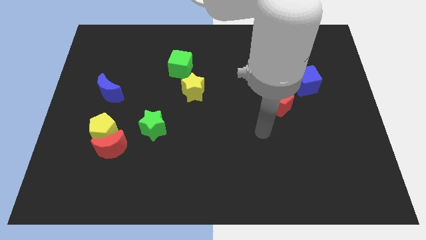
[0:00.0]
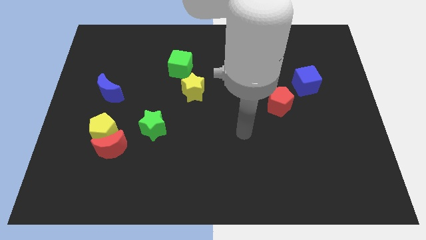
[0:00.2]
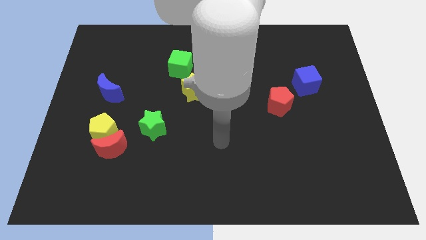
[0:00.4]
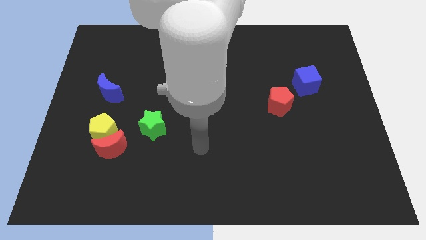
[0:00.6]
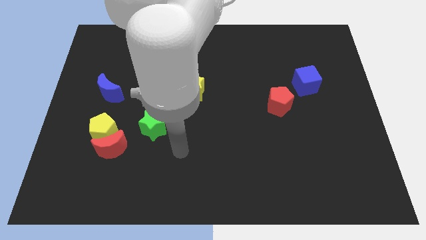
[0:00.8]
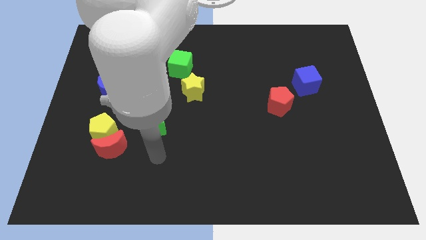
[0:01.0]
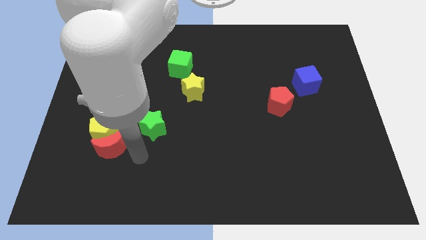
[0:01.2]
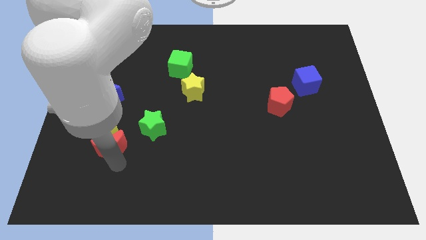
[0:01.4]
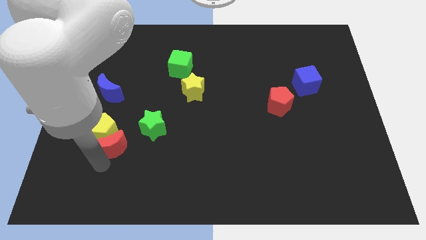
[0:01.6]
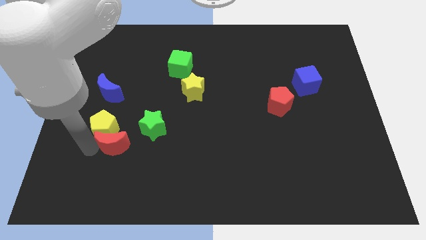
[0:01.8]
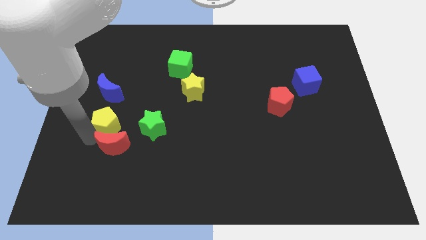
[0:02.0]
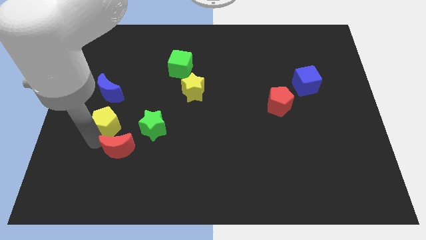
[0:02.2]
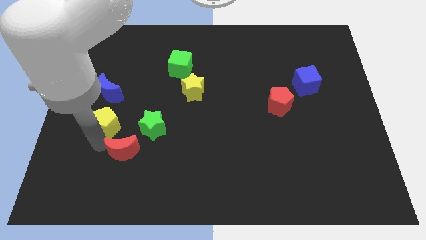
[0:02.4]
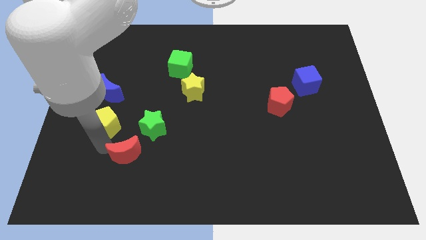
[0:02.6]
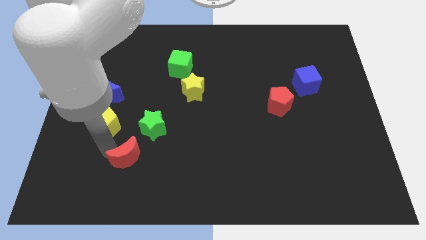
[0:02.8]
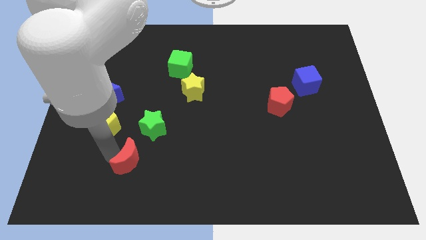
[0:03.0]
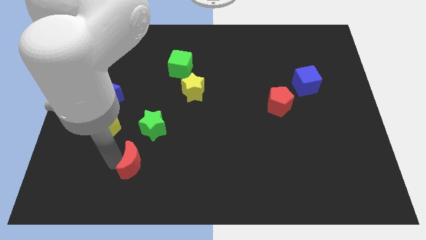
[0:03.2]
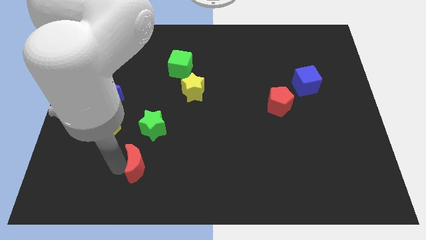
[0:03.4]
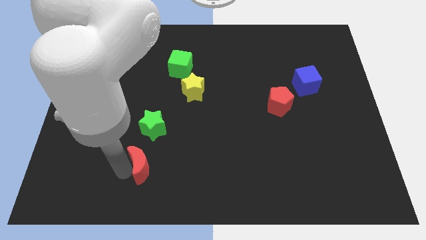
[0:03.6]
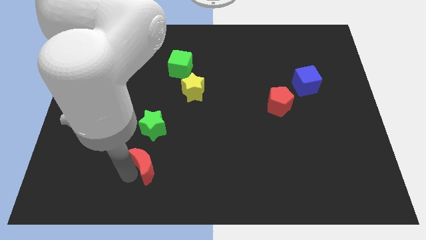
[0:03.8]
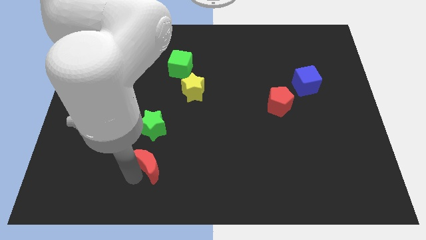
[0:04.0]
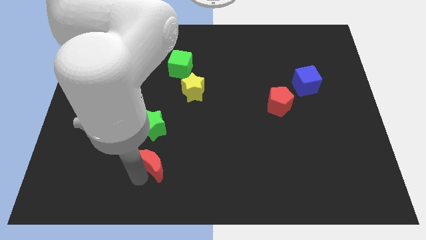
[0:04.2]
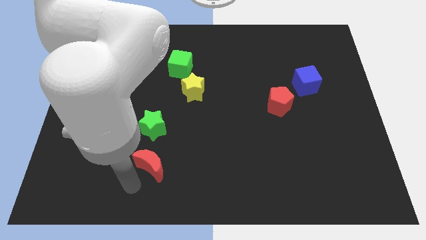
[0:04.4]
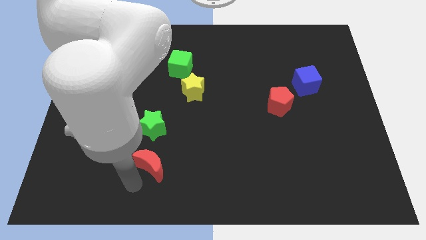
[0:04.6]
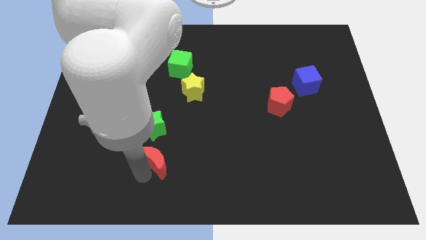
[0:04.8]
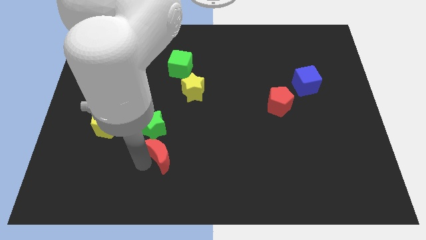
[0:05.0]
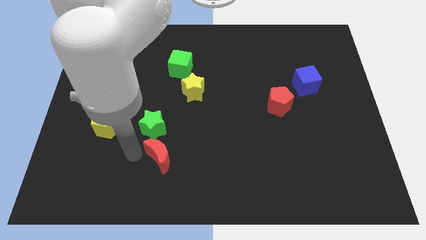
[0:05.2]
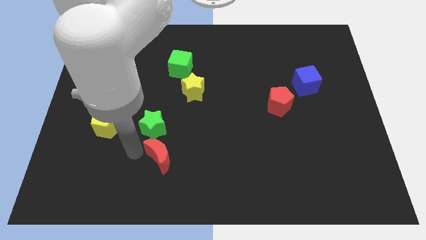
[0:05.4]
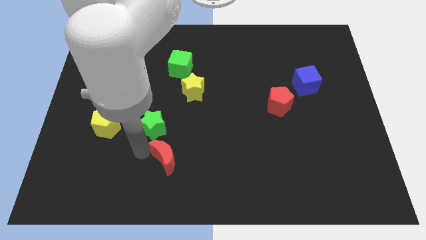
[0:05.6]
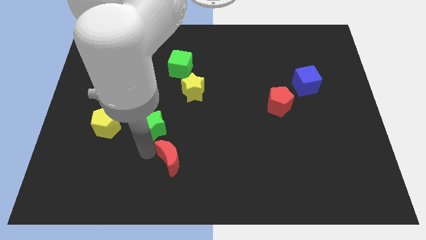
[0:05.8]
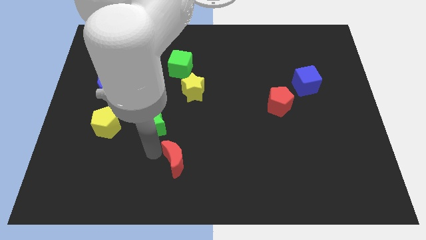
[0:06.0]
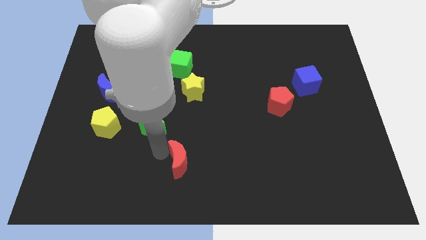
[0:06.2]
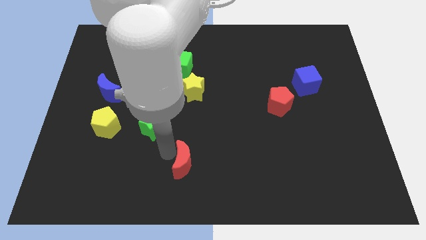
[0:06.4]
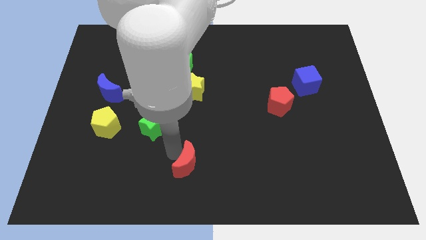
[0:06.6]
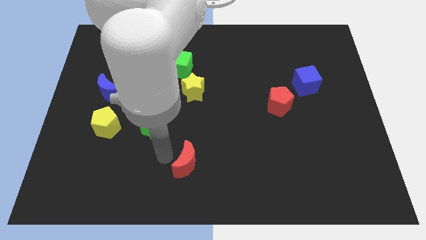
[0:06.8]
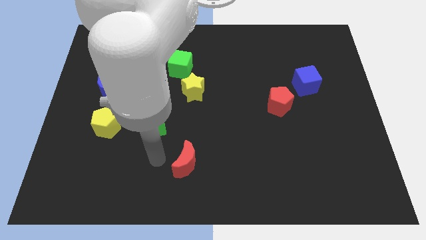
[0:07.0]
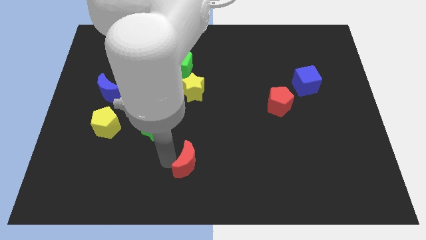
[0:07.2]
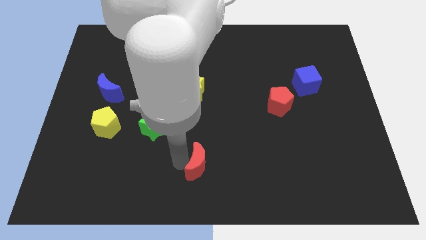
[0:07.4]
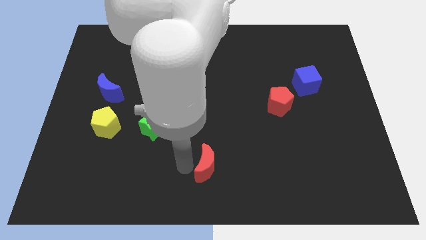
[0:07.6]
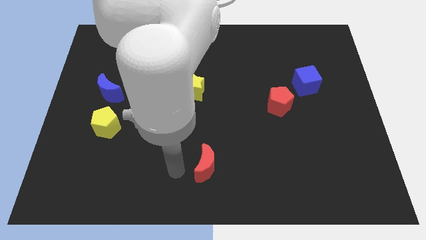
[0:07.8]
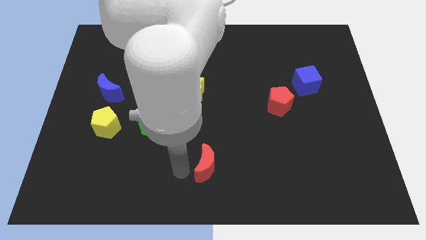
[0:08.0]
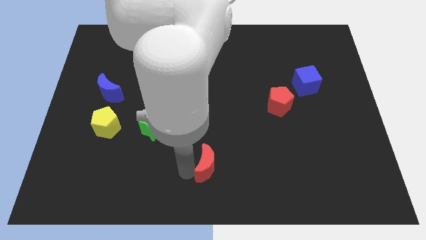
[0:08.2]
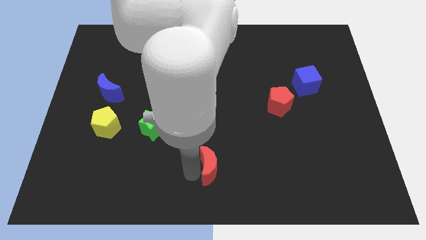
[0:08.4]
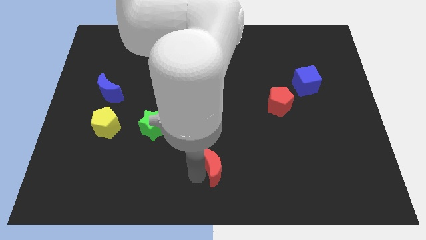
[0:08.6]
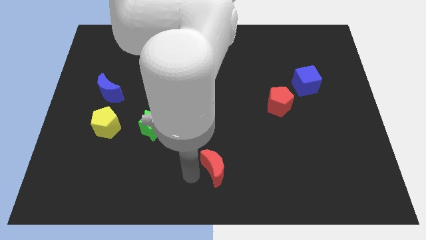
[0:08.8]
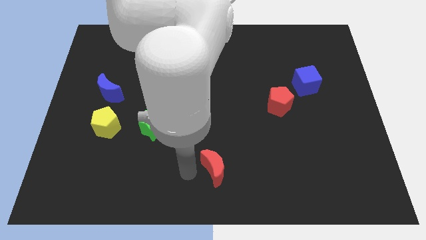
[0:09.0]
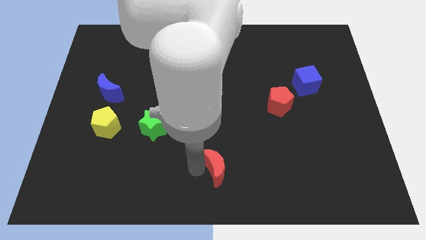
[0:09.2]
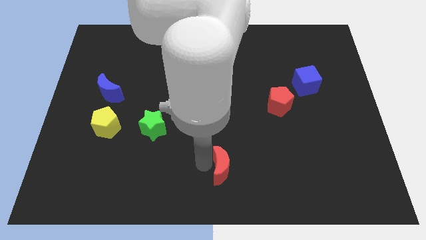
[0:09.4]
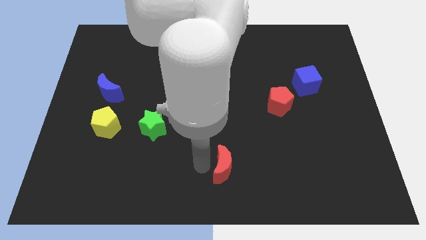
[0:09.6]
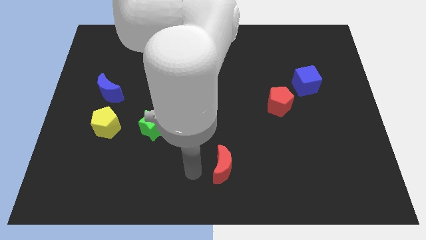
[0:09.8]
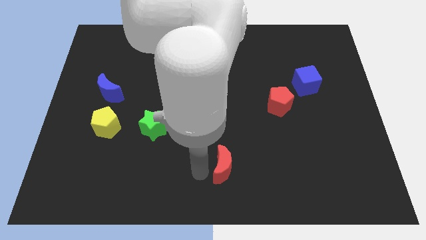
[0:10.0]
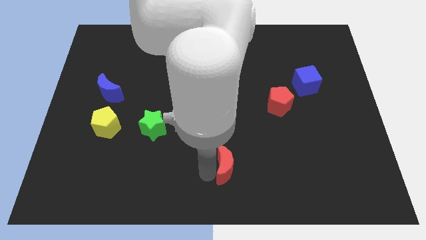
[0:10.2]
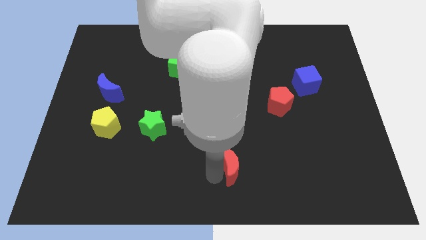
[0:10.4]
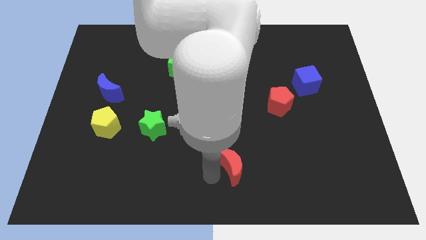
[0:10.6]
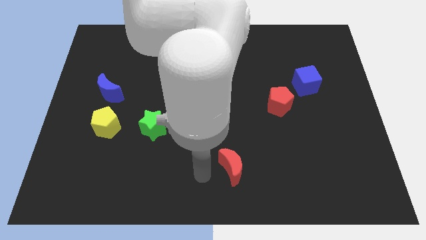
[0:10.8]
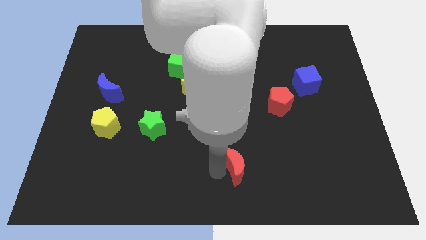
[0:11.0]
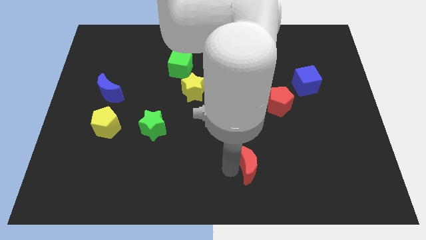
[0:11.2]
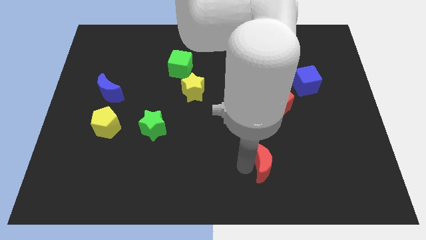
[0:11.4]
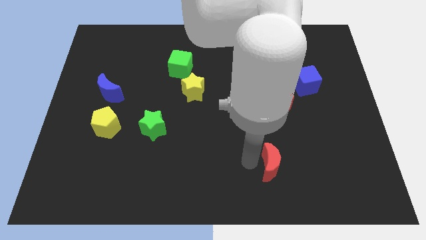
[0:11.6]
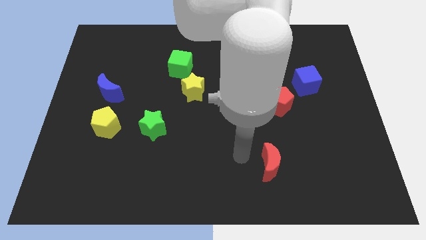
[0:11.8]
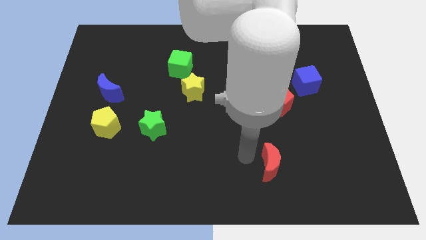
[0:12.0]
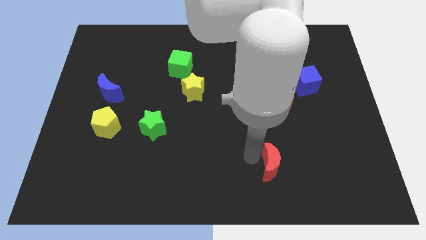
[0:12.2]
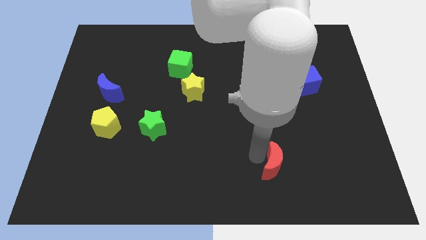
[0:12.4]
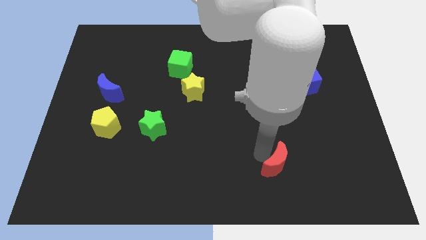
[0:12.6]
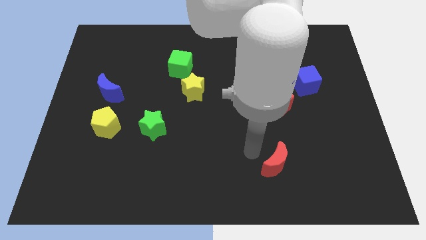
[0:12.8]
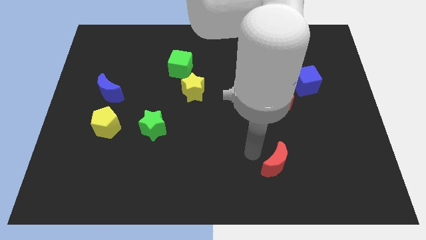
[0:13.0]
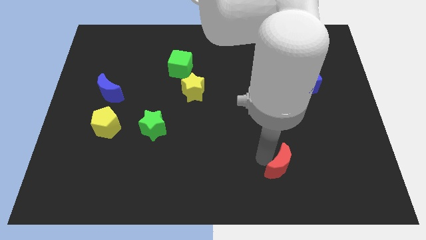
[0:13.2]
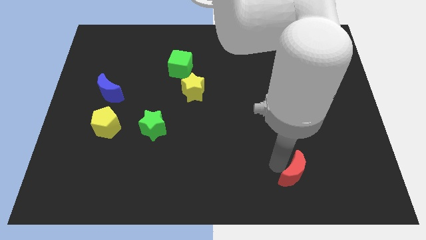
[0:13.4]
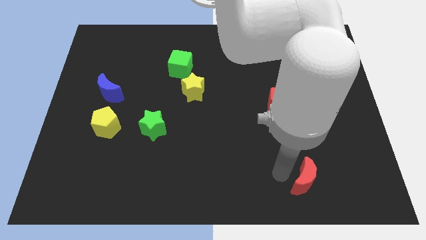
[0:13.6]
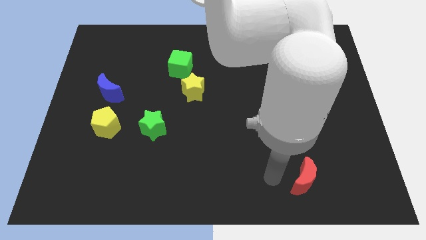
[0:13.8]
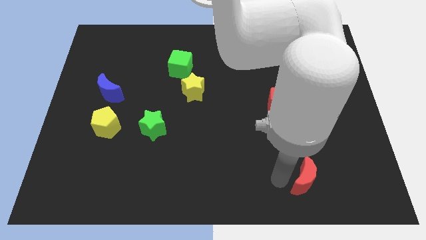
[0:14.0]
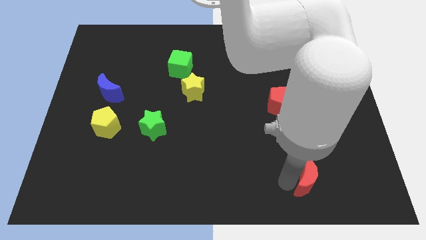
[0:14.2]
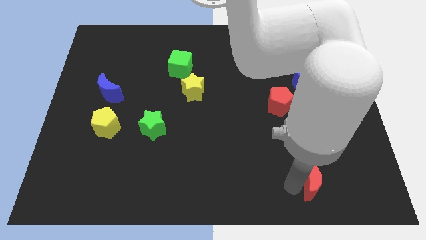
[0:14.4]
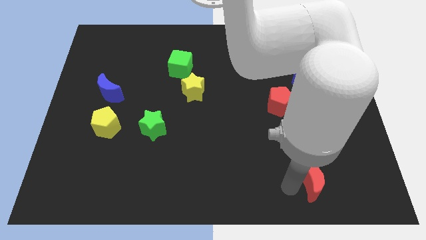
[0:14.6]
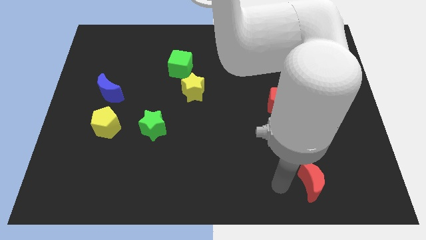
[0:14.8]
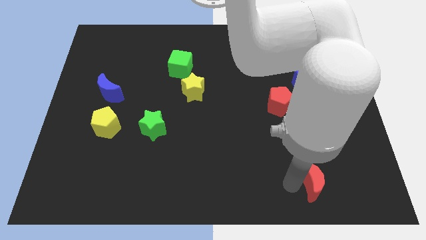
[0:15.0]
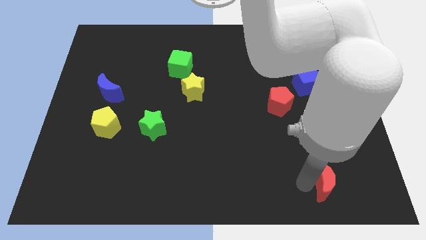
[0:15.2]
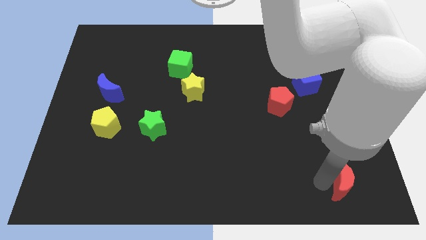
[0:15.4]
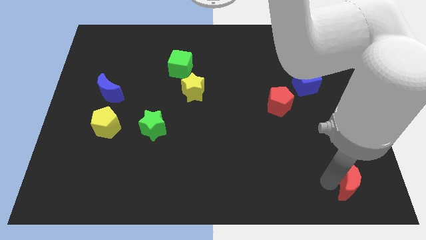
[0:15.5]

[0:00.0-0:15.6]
put the red moon to the lower right corner
